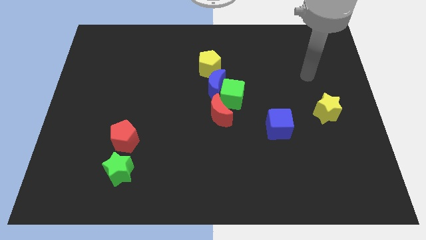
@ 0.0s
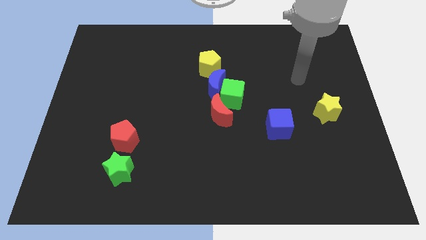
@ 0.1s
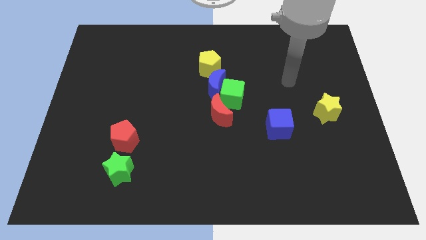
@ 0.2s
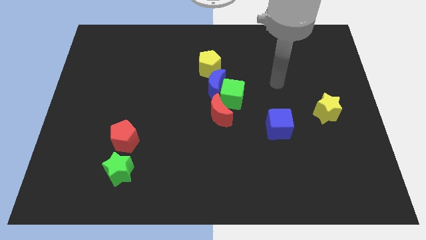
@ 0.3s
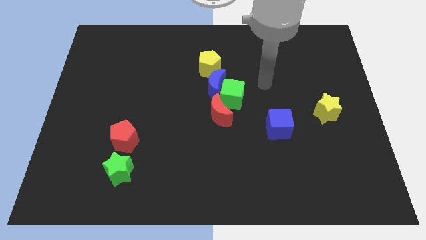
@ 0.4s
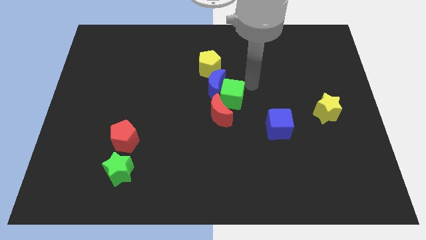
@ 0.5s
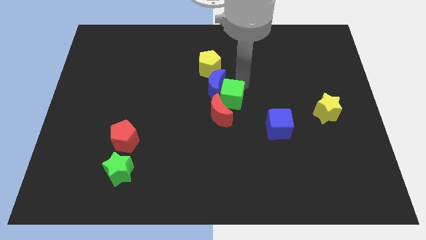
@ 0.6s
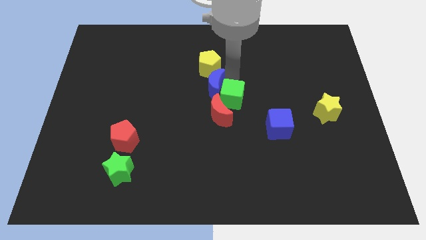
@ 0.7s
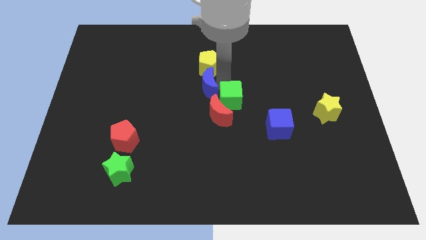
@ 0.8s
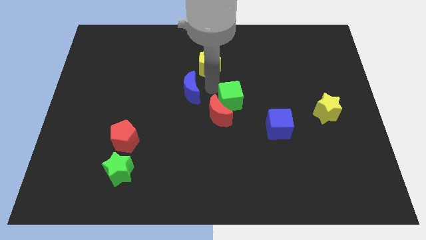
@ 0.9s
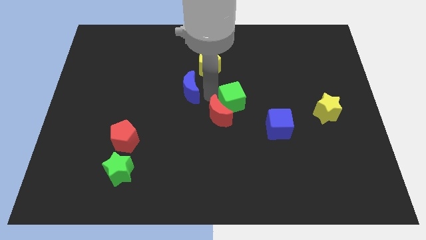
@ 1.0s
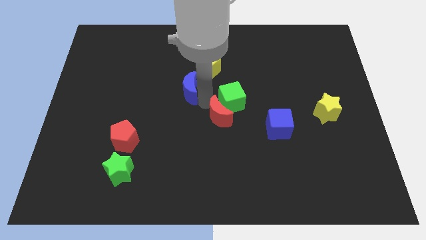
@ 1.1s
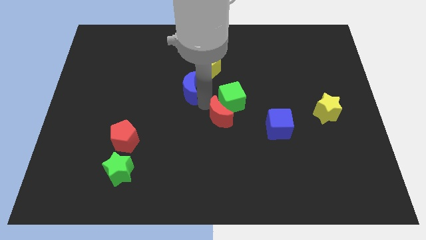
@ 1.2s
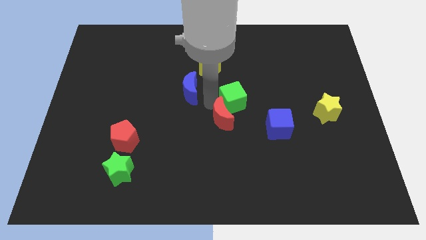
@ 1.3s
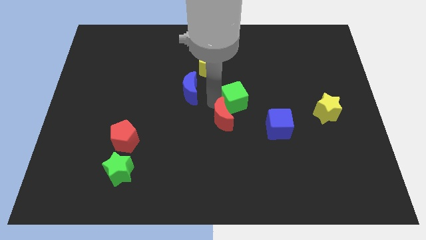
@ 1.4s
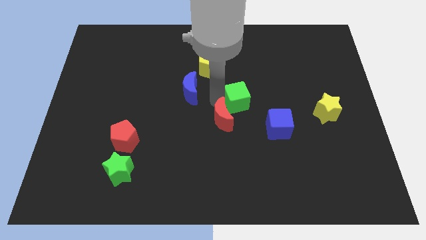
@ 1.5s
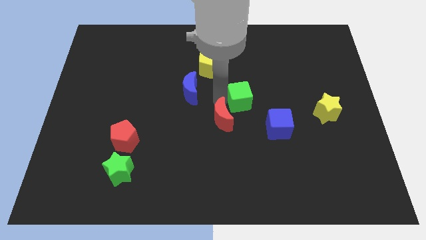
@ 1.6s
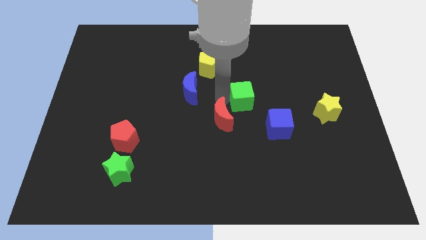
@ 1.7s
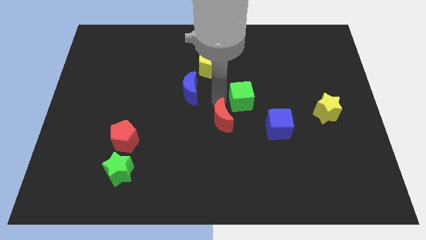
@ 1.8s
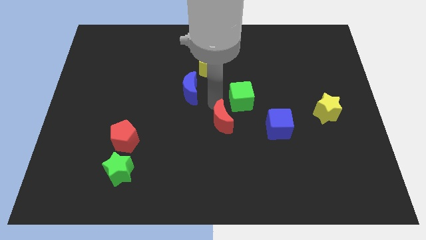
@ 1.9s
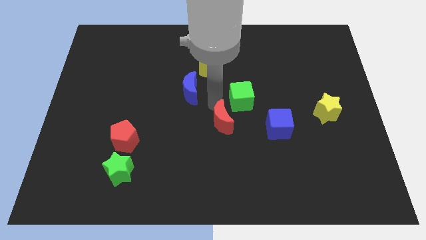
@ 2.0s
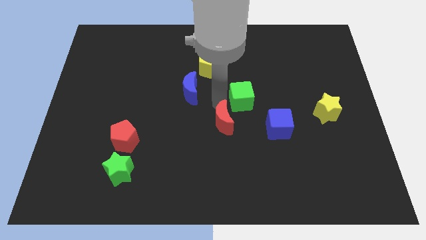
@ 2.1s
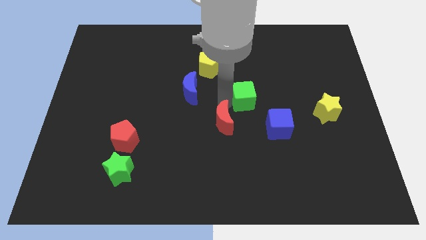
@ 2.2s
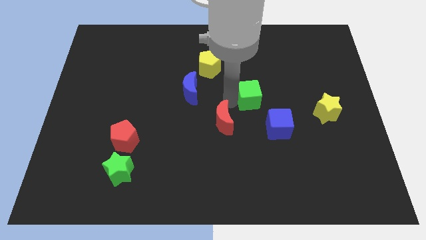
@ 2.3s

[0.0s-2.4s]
pull the green cube apart from the blue moon and red moon

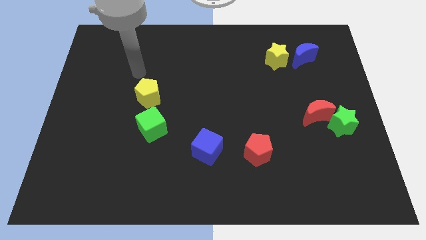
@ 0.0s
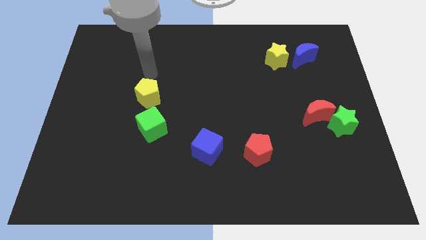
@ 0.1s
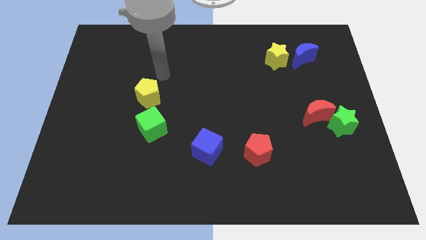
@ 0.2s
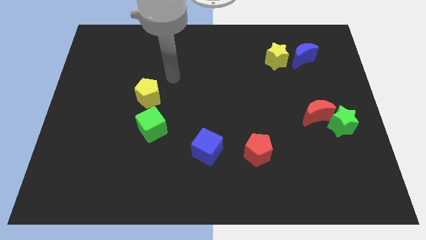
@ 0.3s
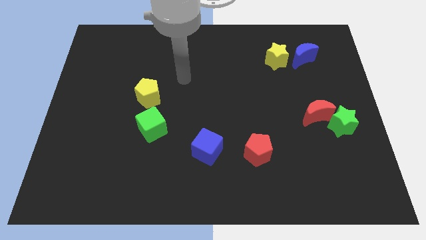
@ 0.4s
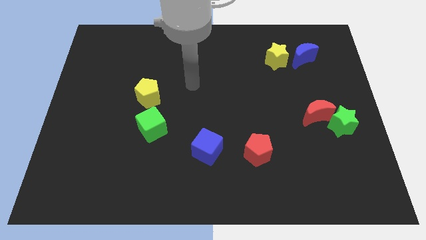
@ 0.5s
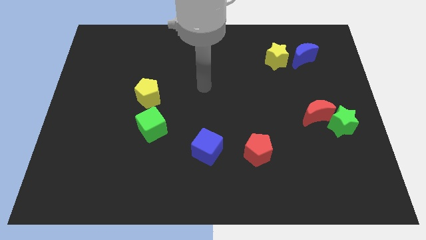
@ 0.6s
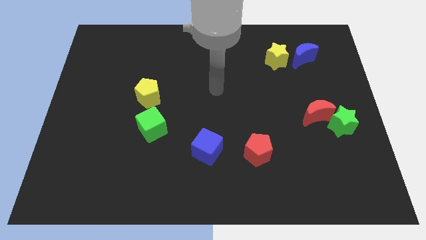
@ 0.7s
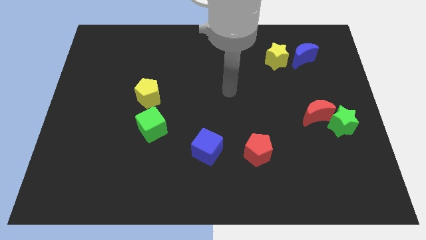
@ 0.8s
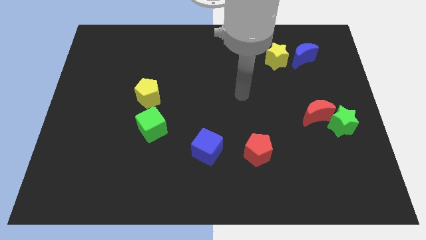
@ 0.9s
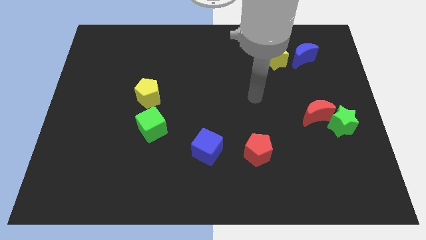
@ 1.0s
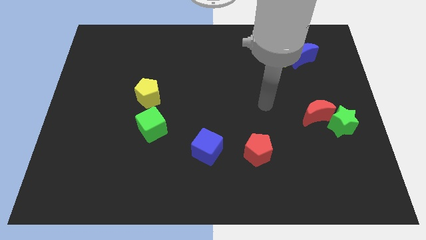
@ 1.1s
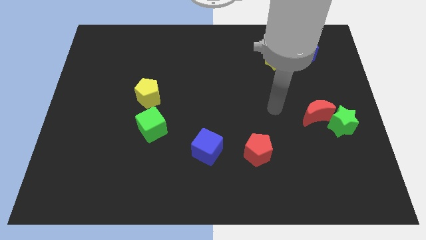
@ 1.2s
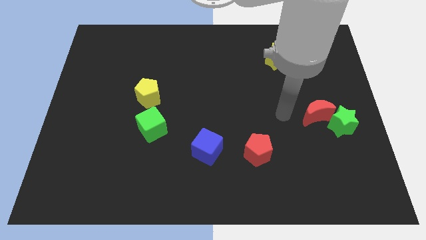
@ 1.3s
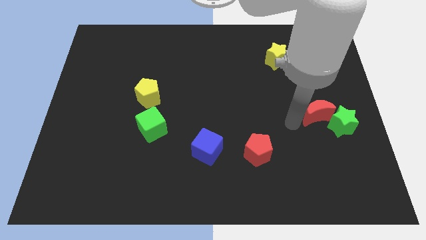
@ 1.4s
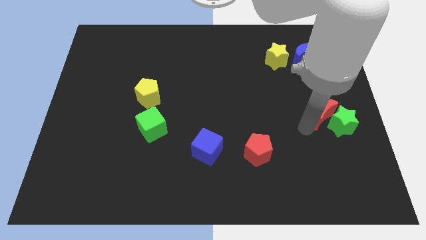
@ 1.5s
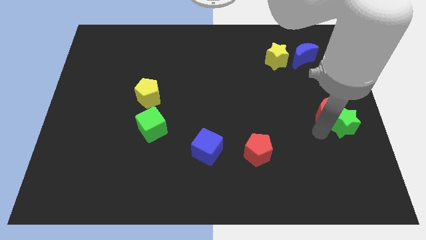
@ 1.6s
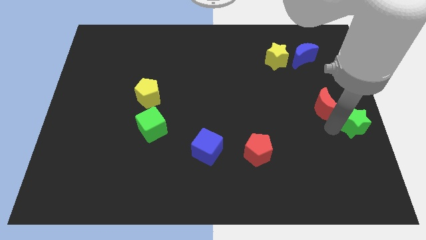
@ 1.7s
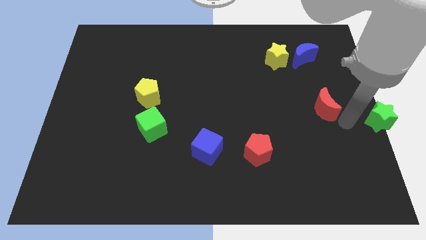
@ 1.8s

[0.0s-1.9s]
pull the red moon apart from the green star

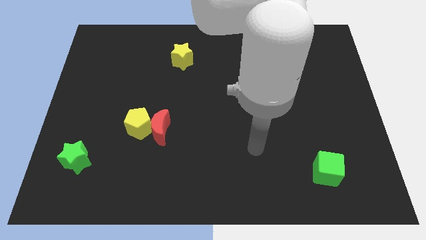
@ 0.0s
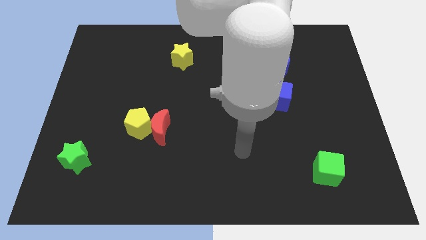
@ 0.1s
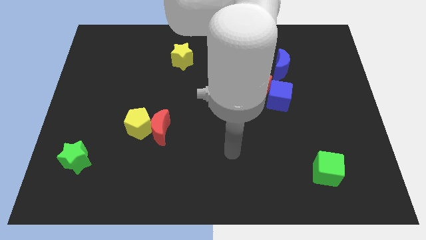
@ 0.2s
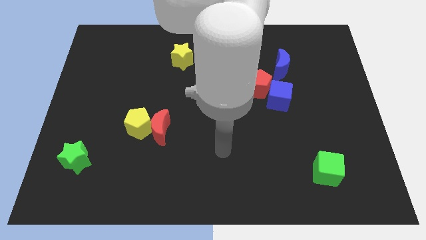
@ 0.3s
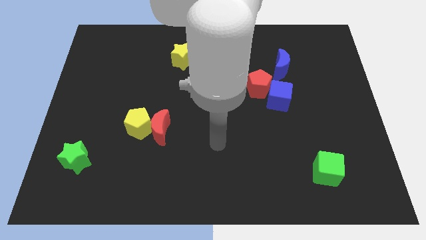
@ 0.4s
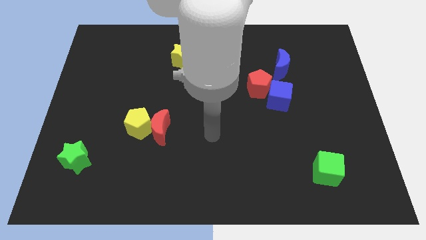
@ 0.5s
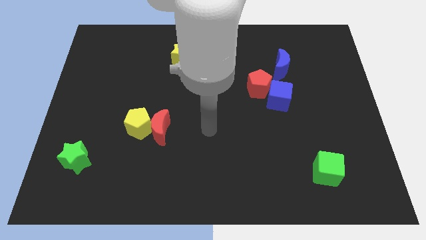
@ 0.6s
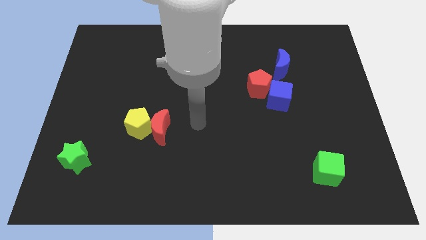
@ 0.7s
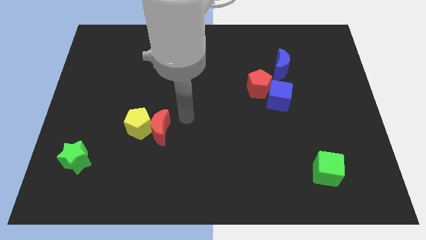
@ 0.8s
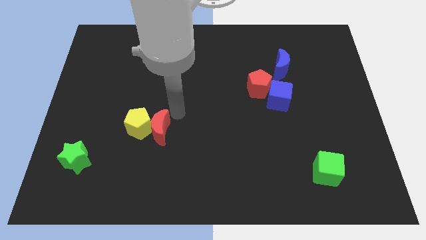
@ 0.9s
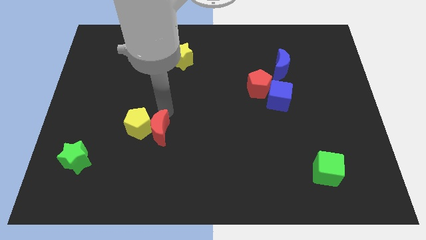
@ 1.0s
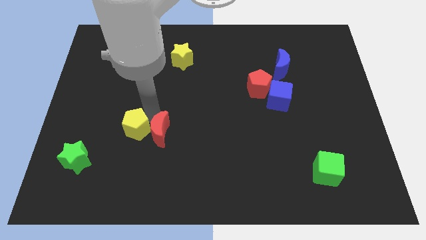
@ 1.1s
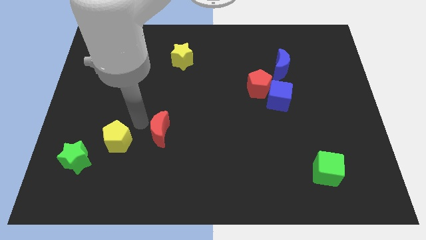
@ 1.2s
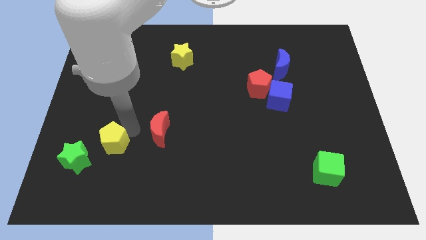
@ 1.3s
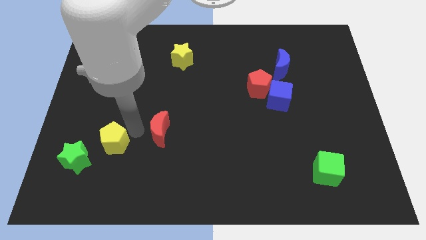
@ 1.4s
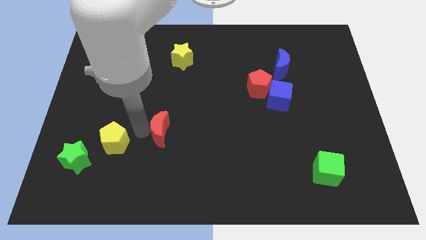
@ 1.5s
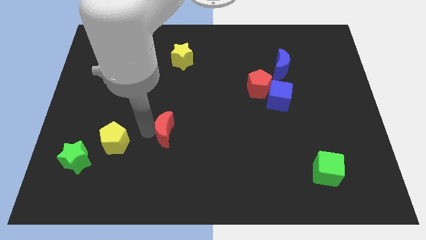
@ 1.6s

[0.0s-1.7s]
separate the red moon from the yellow pentagon

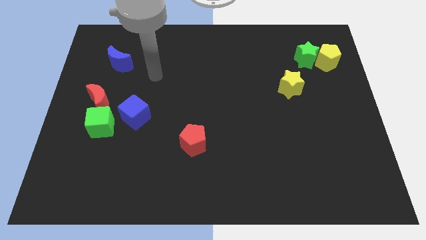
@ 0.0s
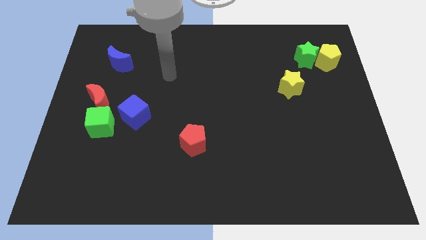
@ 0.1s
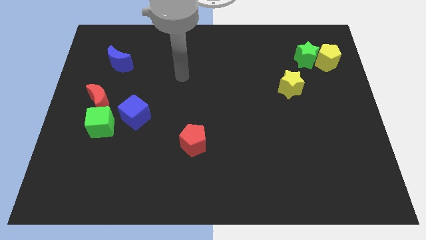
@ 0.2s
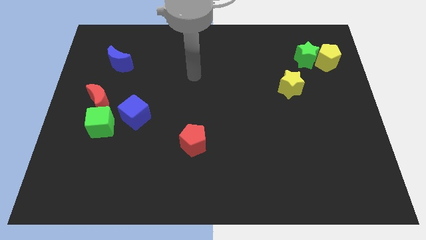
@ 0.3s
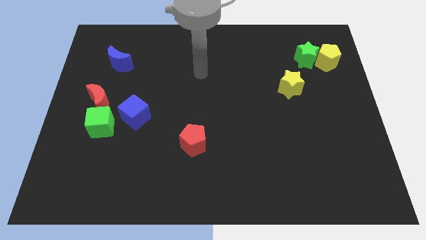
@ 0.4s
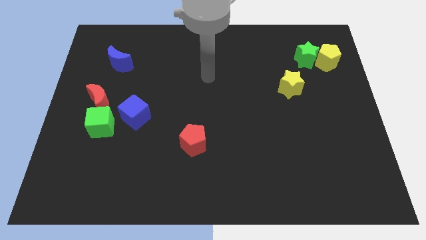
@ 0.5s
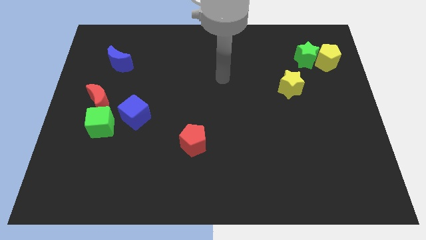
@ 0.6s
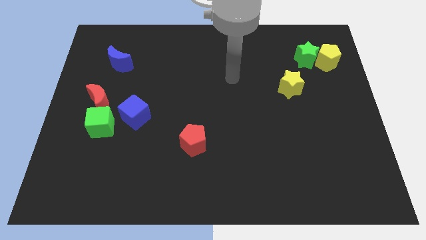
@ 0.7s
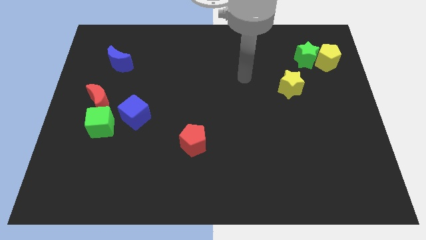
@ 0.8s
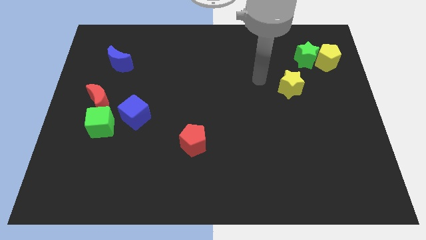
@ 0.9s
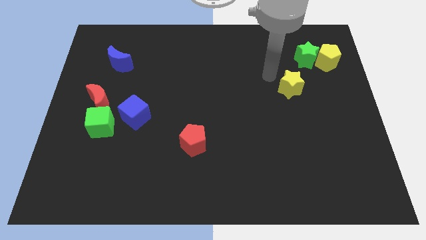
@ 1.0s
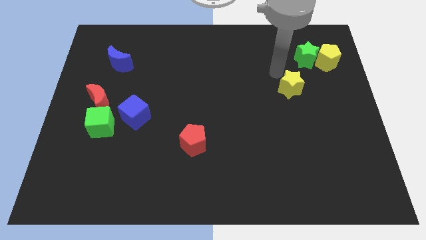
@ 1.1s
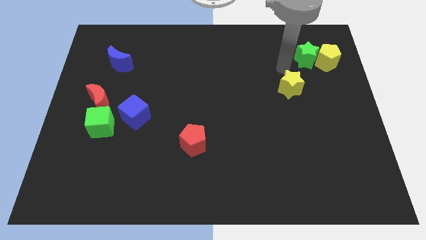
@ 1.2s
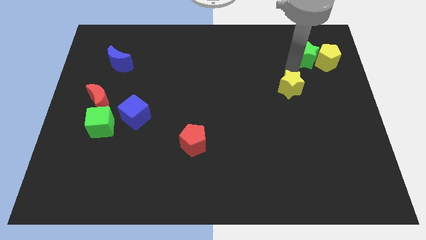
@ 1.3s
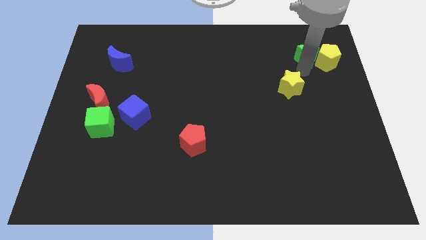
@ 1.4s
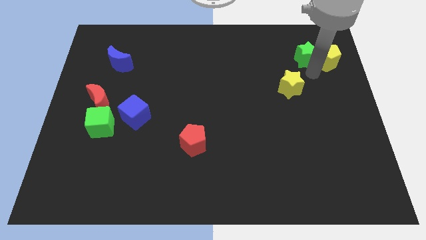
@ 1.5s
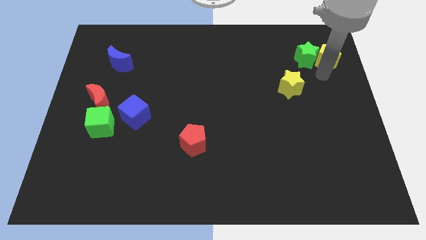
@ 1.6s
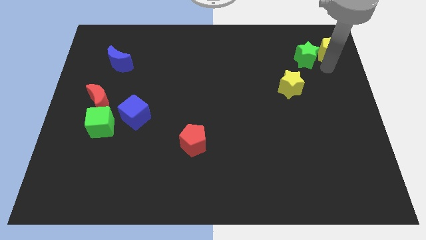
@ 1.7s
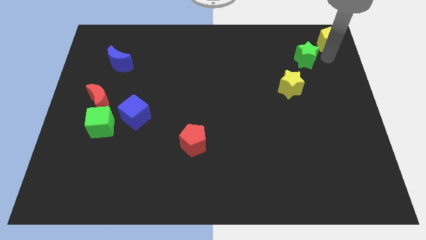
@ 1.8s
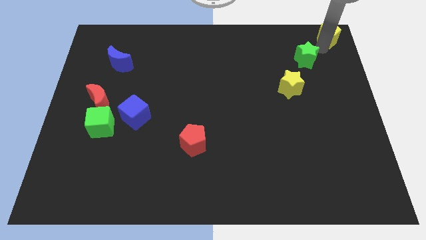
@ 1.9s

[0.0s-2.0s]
separate the green star from the yellow pentagon

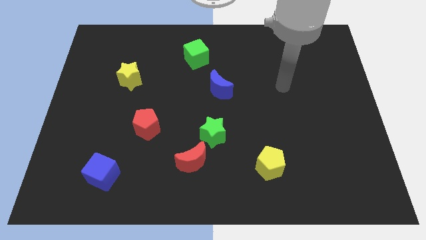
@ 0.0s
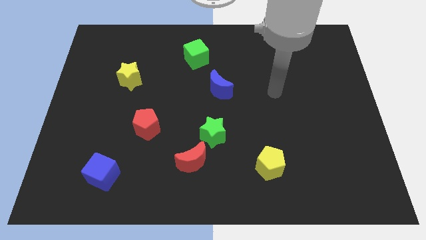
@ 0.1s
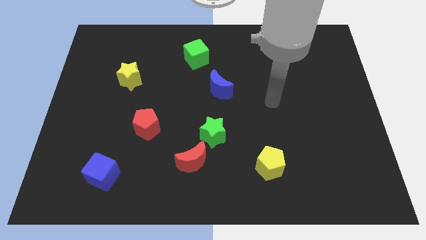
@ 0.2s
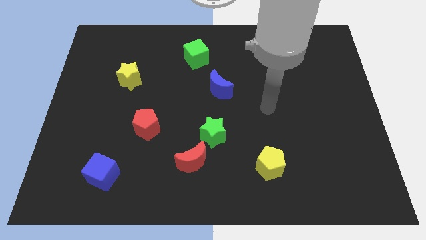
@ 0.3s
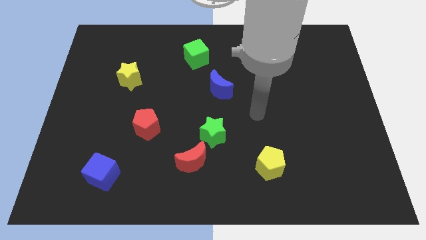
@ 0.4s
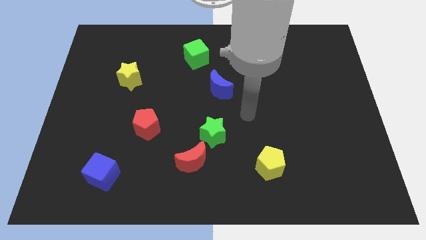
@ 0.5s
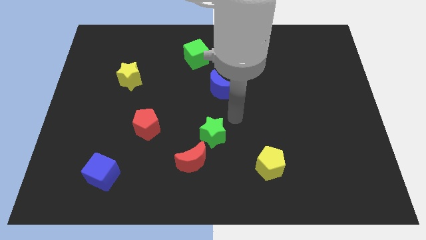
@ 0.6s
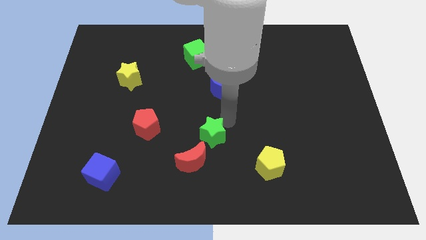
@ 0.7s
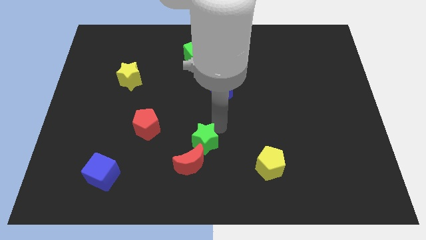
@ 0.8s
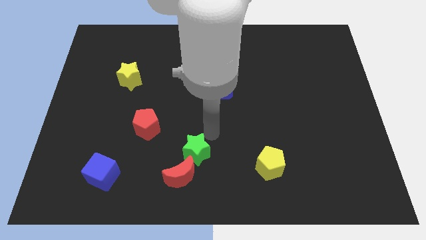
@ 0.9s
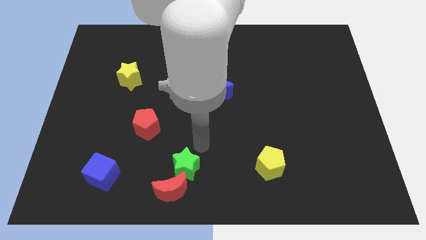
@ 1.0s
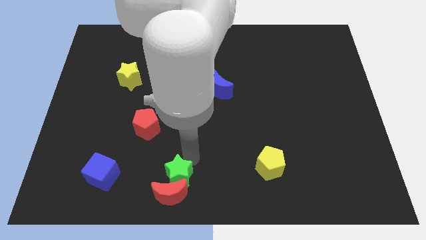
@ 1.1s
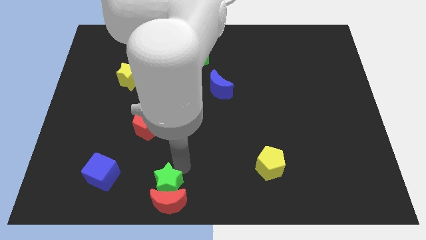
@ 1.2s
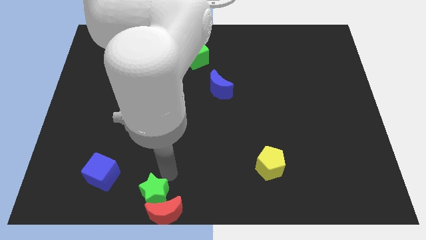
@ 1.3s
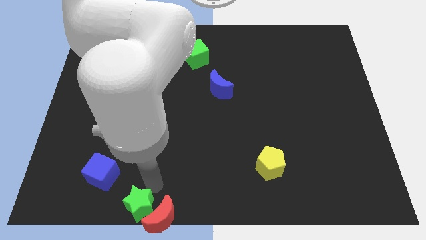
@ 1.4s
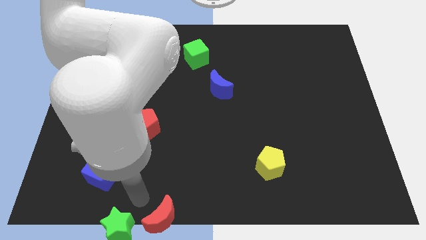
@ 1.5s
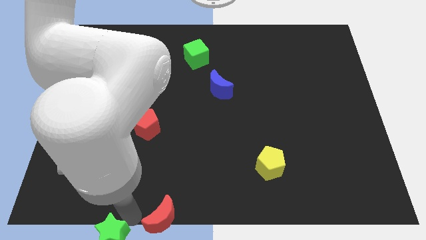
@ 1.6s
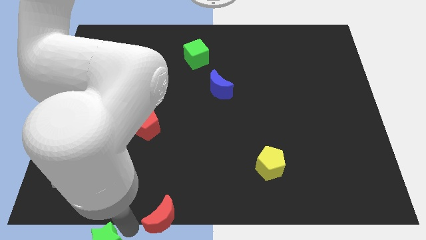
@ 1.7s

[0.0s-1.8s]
separate the red moon from the green star
